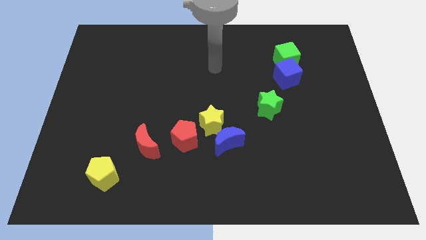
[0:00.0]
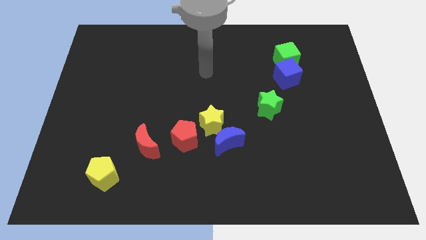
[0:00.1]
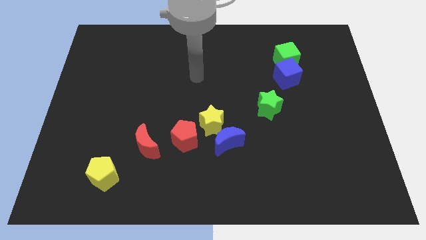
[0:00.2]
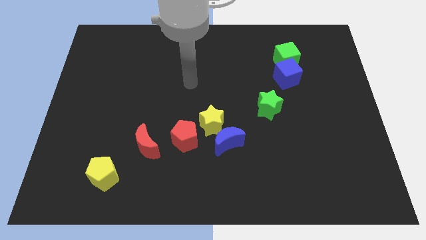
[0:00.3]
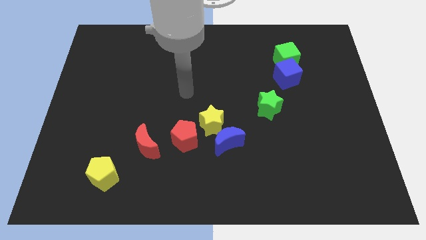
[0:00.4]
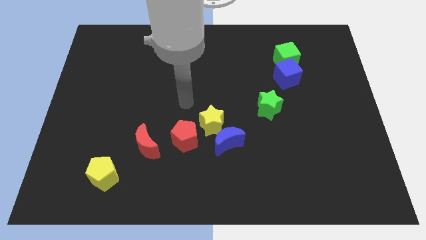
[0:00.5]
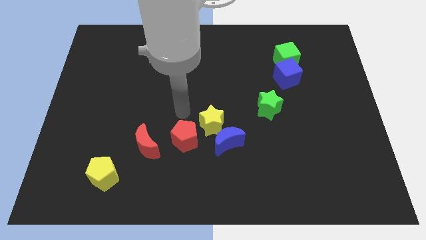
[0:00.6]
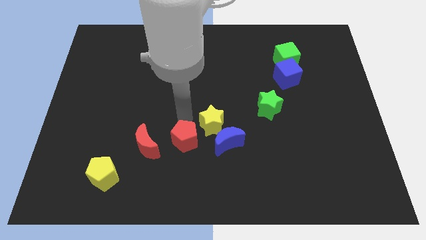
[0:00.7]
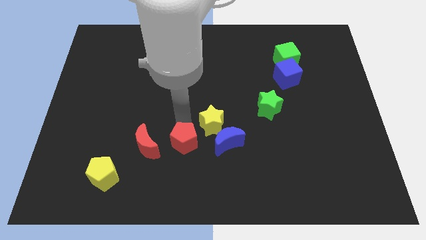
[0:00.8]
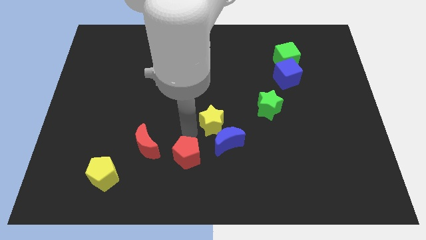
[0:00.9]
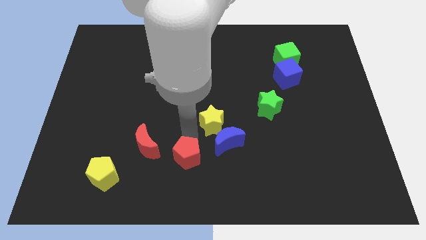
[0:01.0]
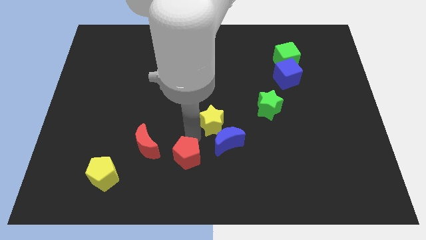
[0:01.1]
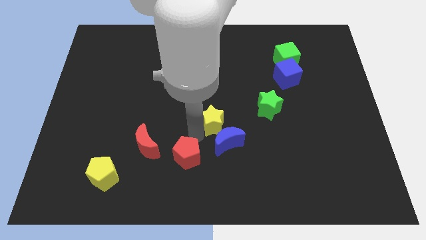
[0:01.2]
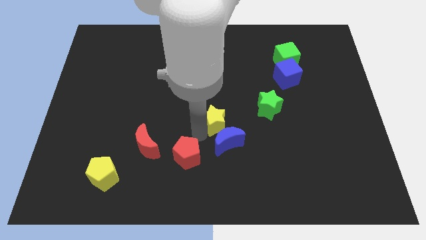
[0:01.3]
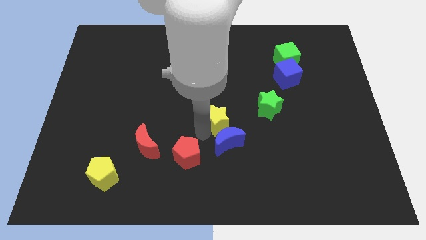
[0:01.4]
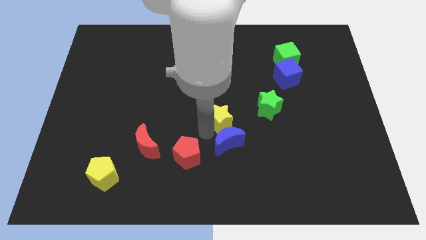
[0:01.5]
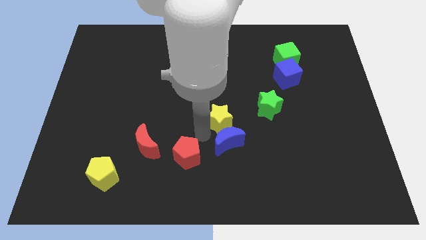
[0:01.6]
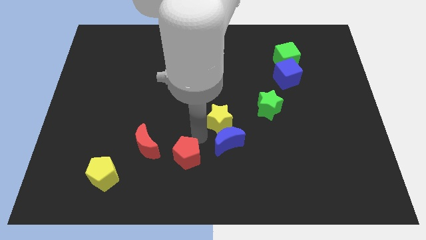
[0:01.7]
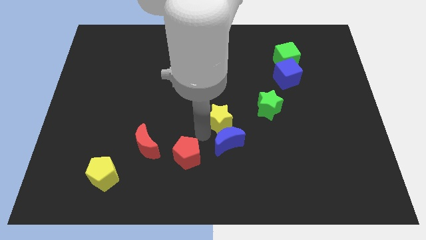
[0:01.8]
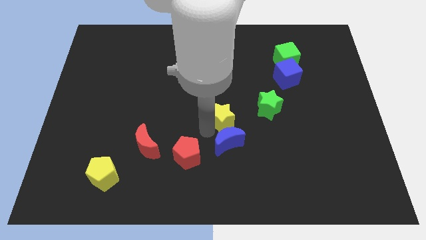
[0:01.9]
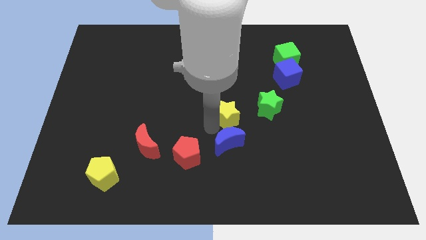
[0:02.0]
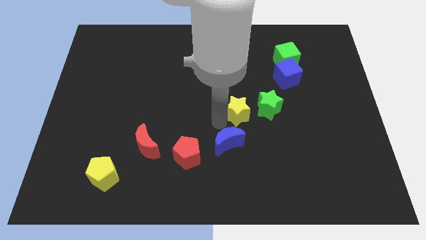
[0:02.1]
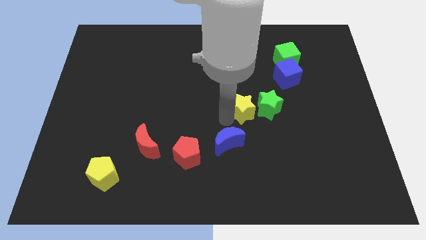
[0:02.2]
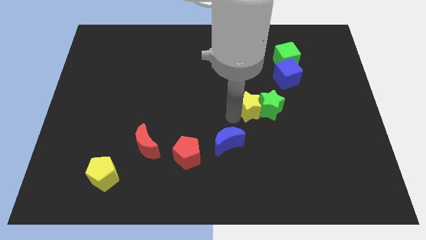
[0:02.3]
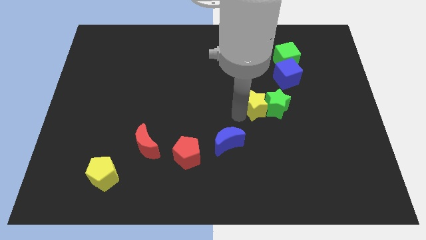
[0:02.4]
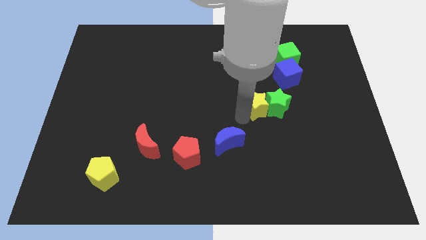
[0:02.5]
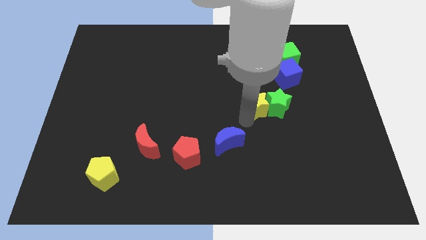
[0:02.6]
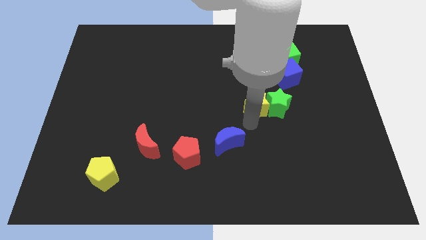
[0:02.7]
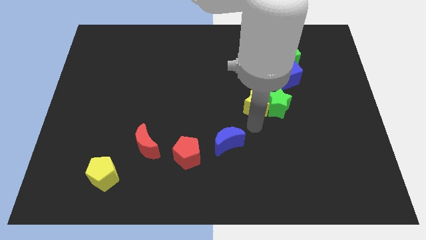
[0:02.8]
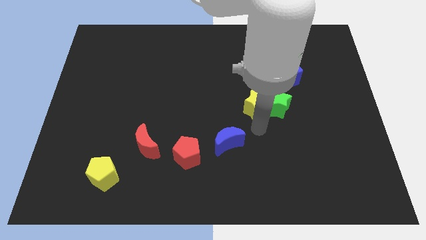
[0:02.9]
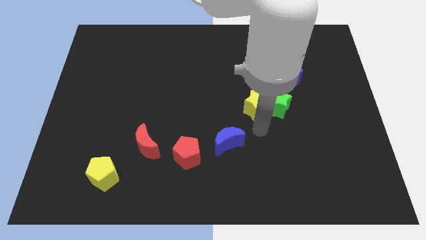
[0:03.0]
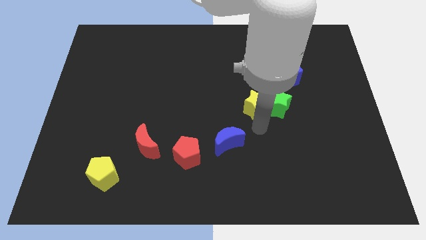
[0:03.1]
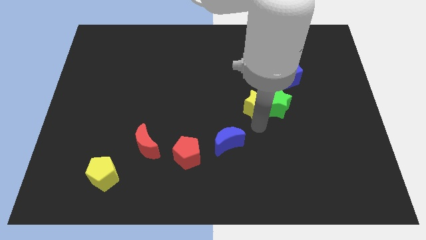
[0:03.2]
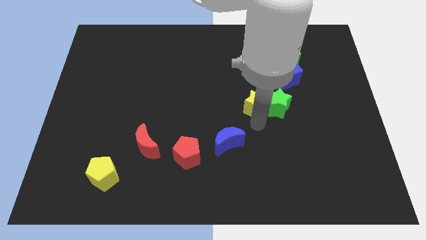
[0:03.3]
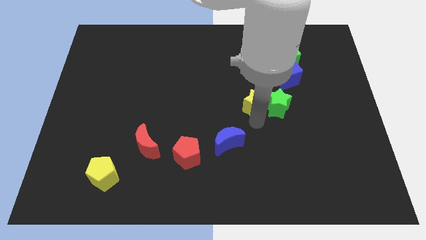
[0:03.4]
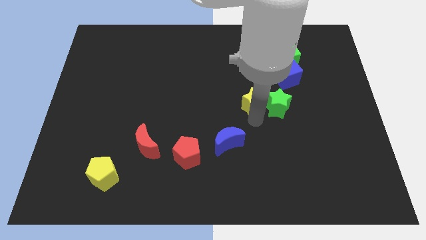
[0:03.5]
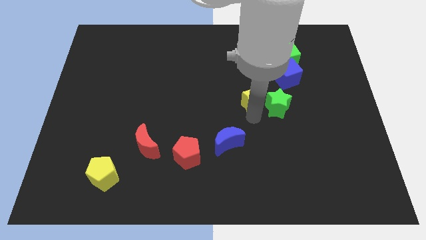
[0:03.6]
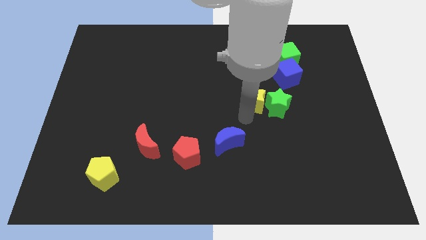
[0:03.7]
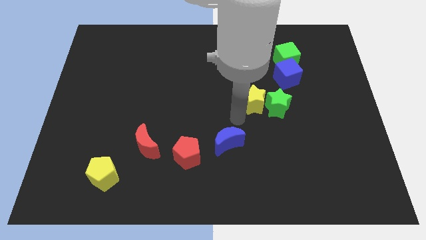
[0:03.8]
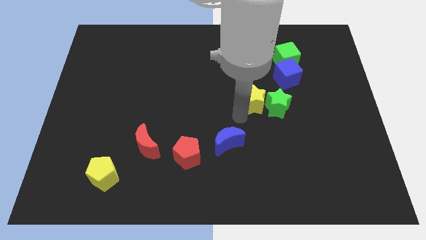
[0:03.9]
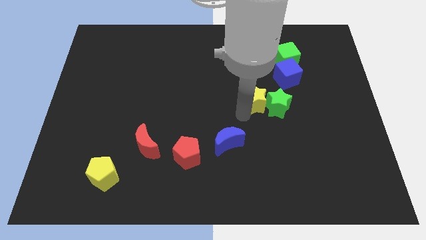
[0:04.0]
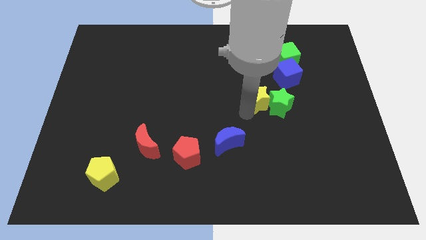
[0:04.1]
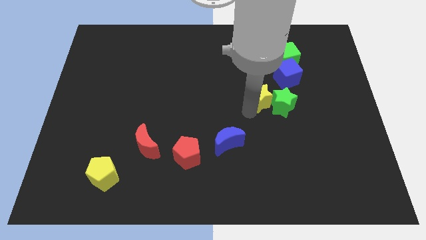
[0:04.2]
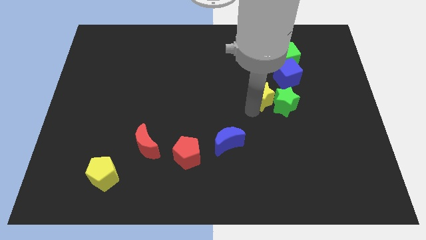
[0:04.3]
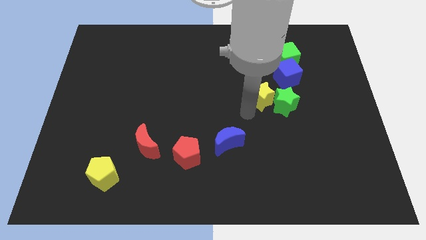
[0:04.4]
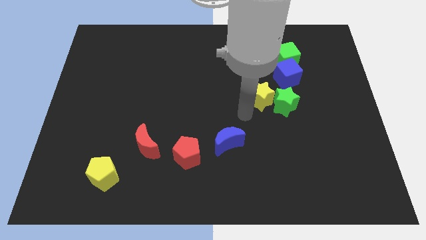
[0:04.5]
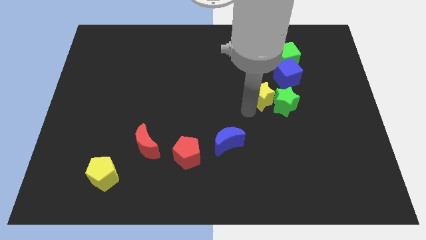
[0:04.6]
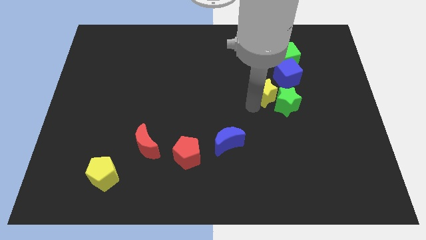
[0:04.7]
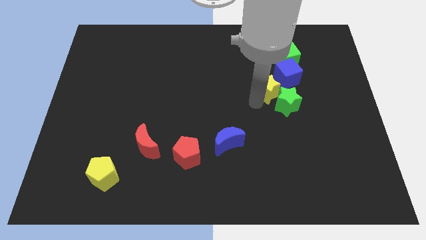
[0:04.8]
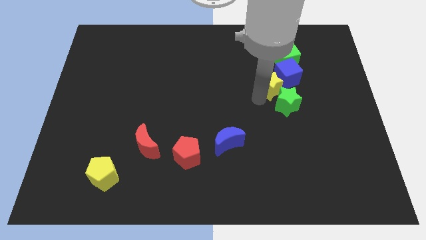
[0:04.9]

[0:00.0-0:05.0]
put the yellow star close to the blue cube

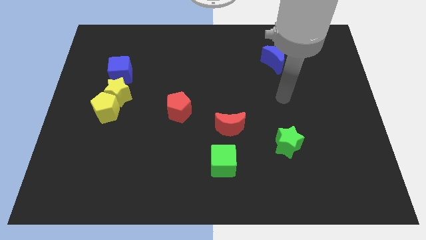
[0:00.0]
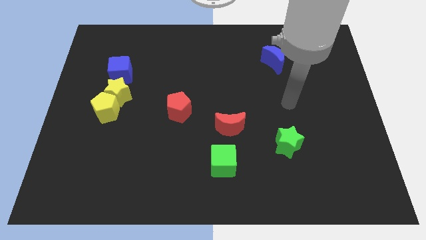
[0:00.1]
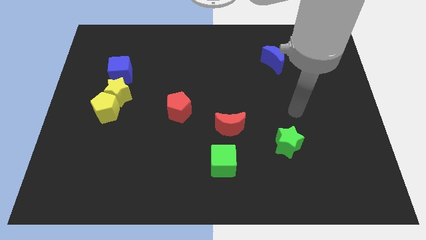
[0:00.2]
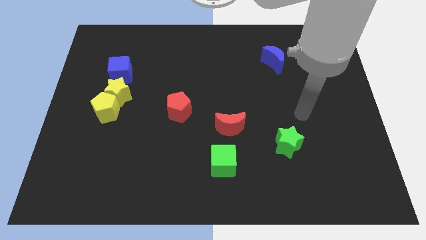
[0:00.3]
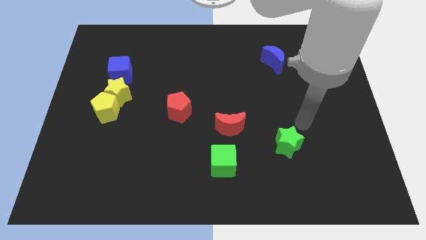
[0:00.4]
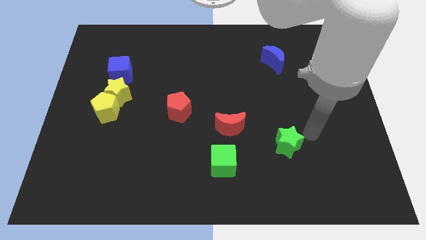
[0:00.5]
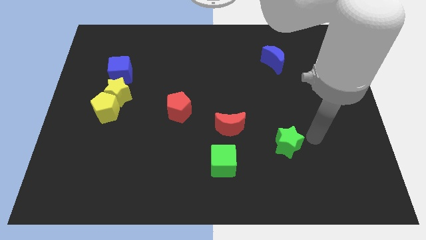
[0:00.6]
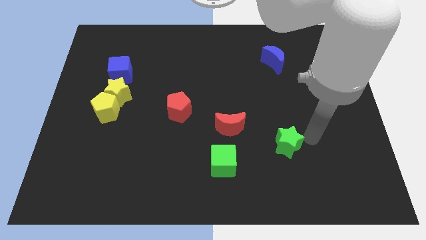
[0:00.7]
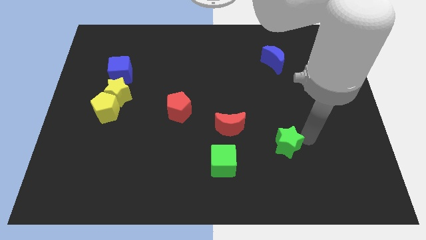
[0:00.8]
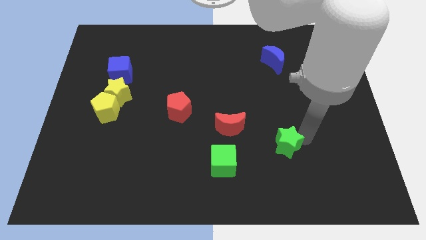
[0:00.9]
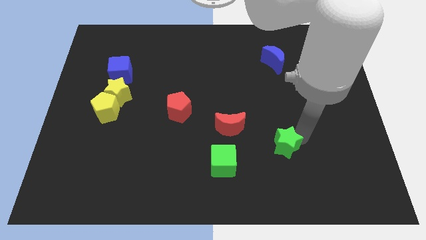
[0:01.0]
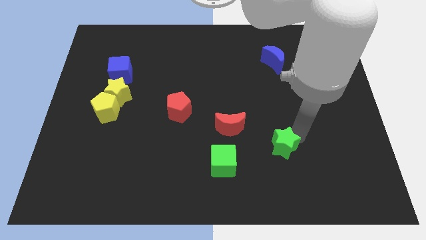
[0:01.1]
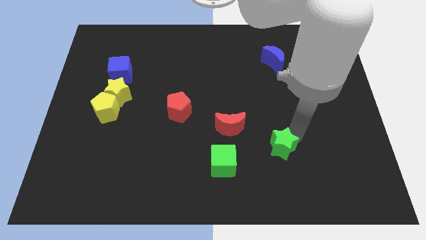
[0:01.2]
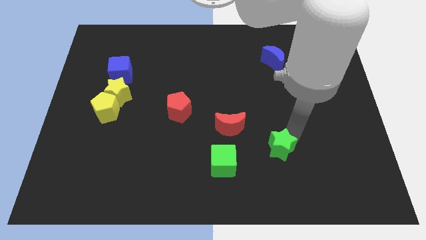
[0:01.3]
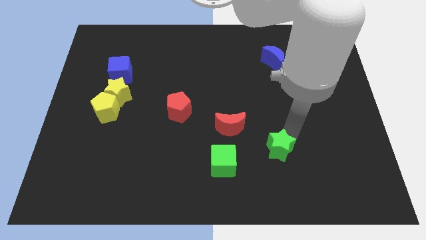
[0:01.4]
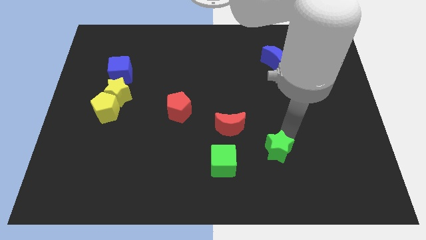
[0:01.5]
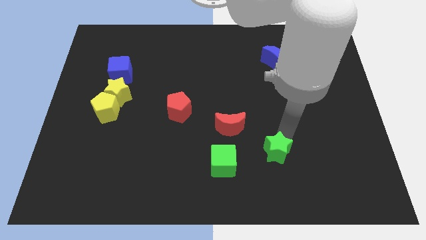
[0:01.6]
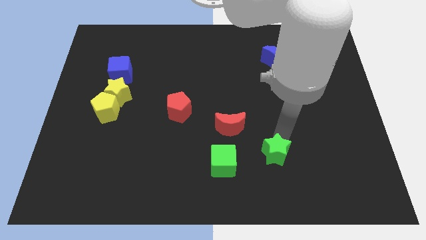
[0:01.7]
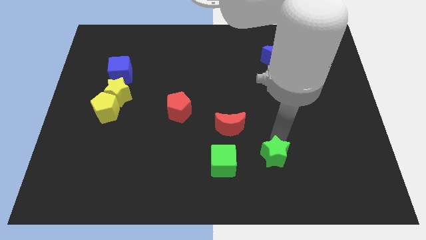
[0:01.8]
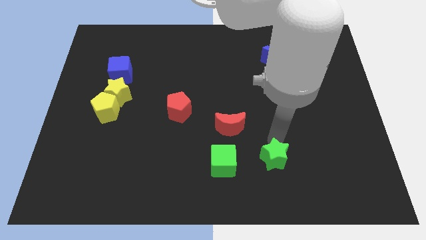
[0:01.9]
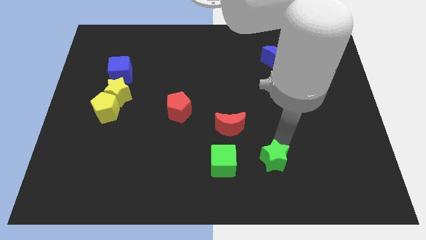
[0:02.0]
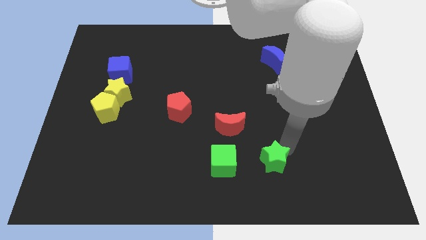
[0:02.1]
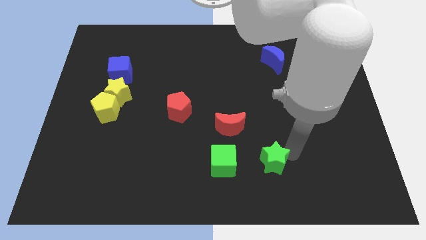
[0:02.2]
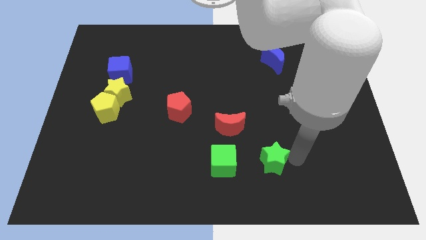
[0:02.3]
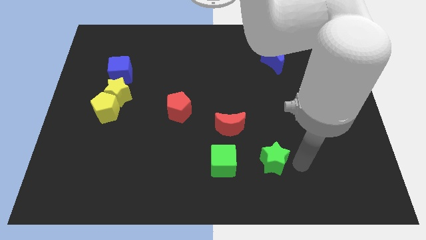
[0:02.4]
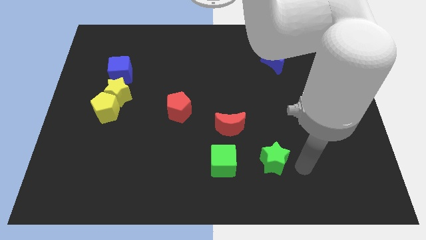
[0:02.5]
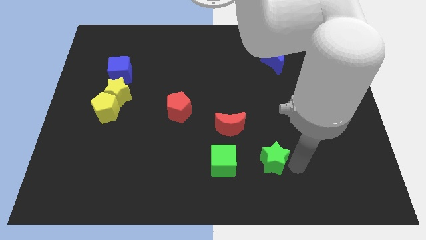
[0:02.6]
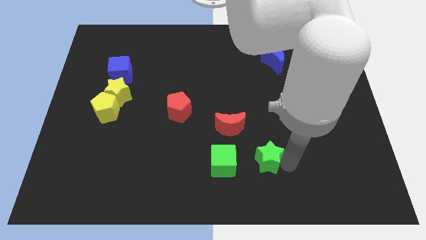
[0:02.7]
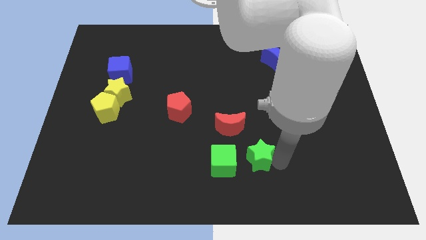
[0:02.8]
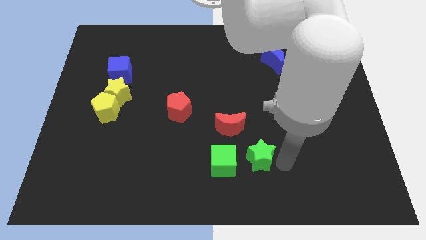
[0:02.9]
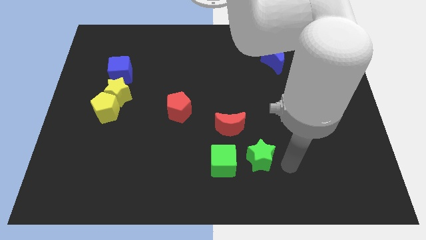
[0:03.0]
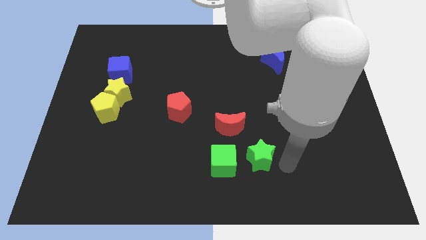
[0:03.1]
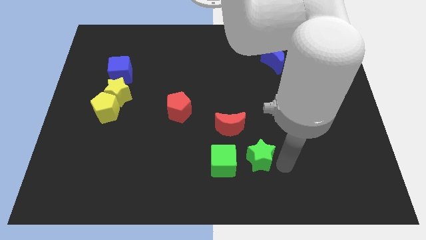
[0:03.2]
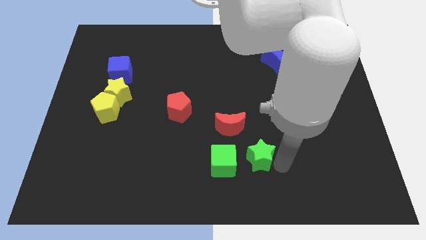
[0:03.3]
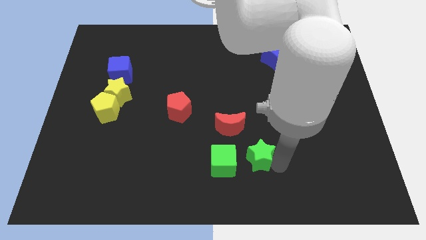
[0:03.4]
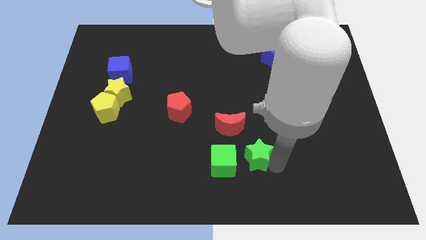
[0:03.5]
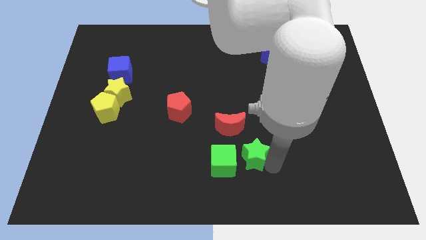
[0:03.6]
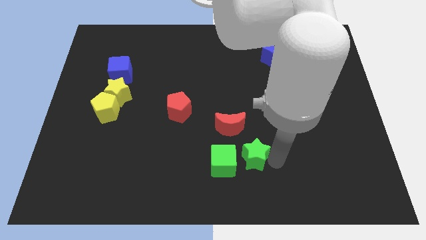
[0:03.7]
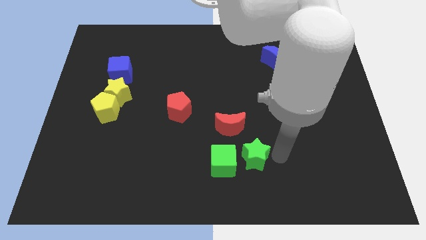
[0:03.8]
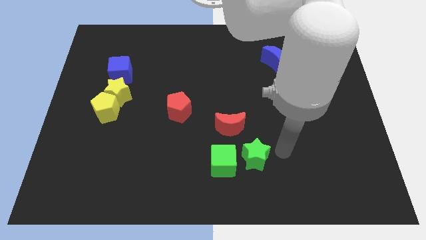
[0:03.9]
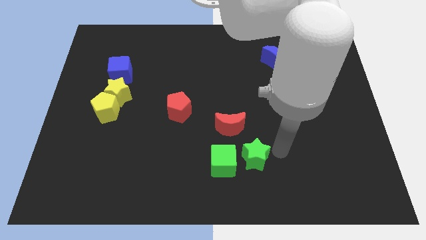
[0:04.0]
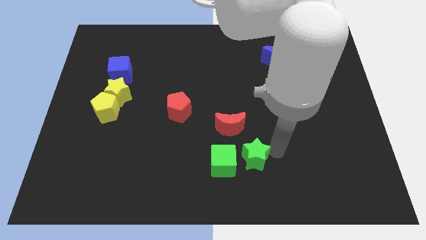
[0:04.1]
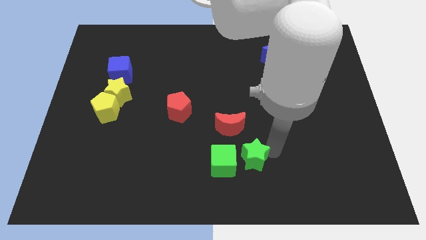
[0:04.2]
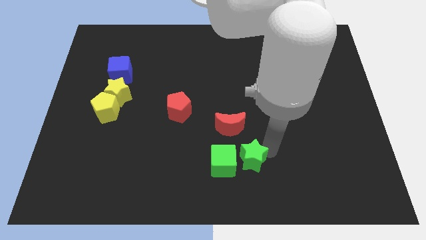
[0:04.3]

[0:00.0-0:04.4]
put the green star to the green cube
